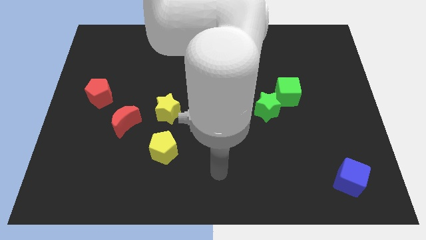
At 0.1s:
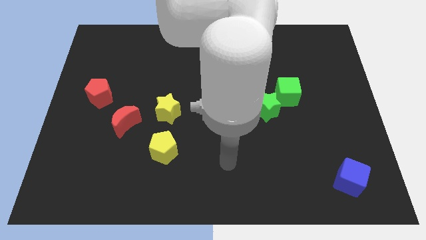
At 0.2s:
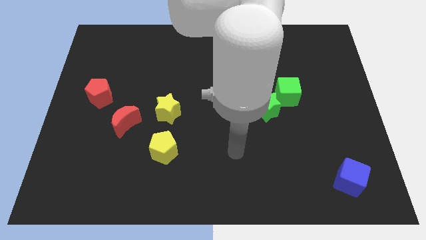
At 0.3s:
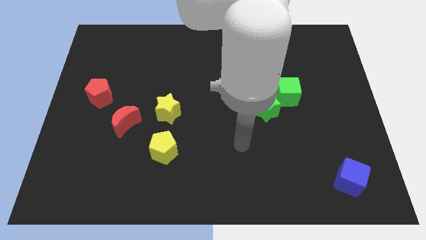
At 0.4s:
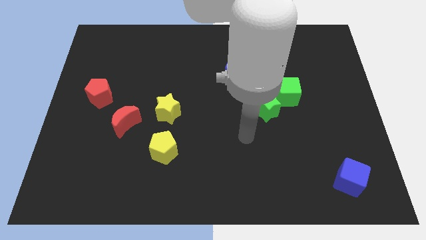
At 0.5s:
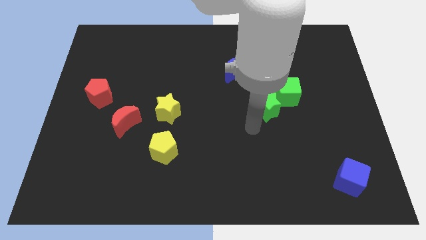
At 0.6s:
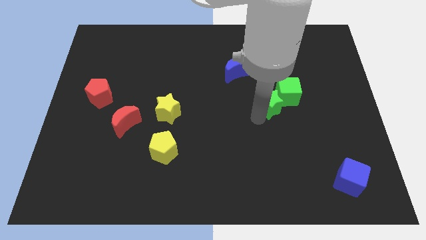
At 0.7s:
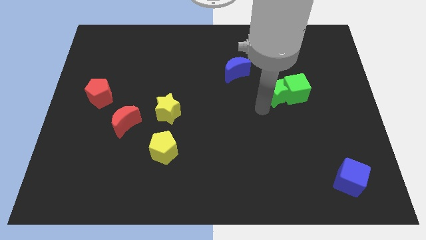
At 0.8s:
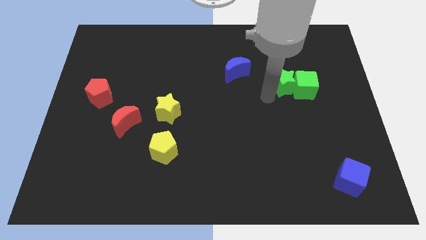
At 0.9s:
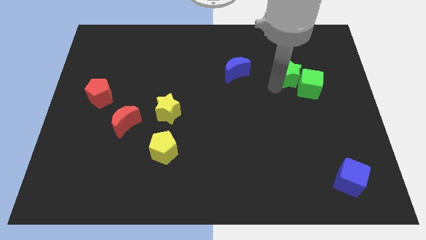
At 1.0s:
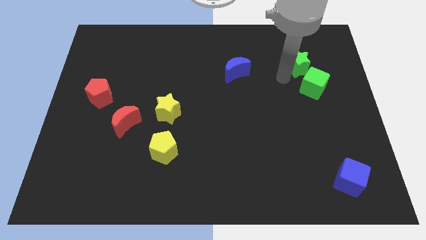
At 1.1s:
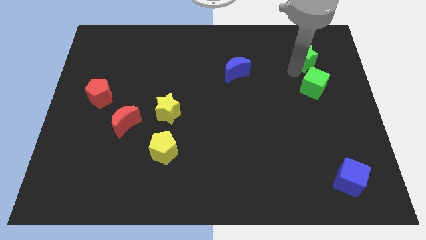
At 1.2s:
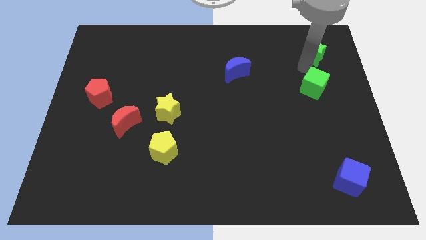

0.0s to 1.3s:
move the green cube away from the green star

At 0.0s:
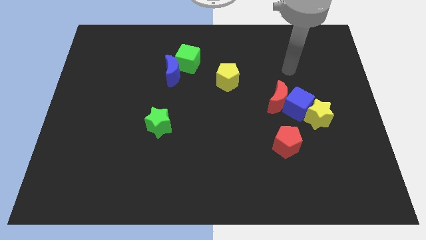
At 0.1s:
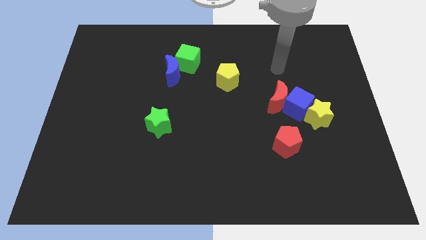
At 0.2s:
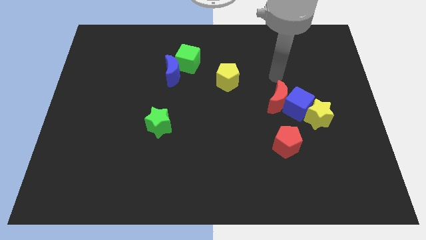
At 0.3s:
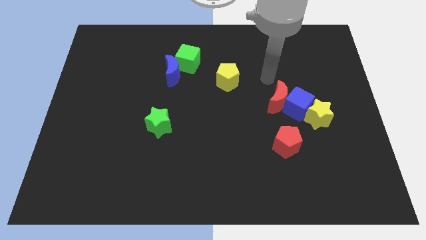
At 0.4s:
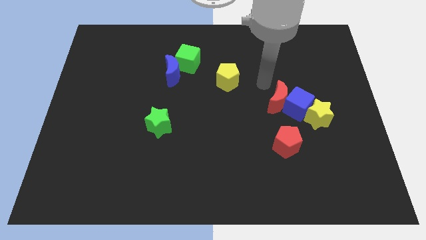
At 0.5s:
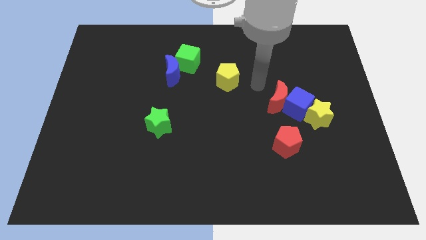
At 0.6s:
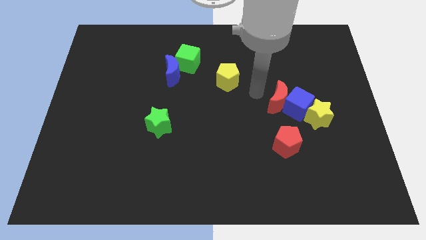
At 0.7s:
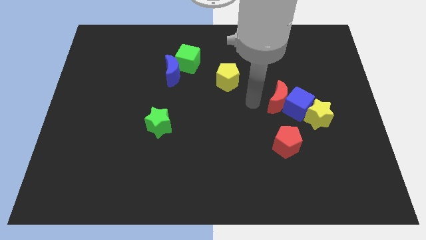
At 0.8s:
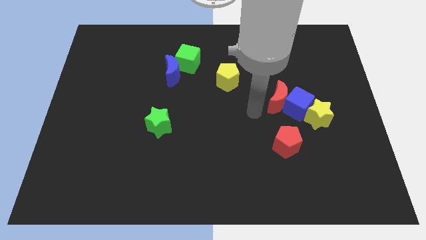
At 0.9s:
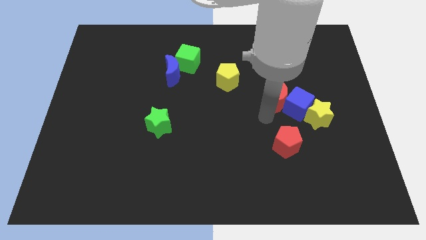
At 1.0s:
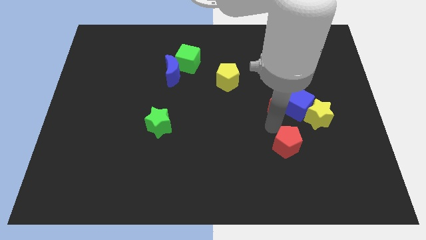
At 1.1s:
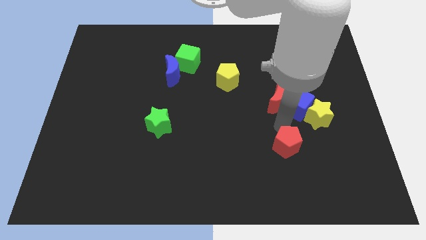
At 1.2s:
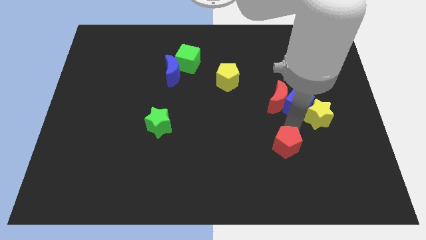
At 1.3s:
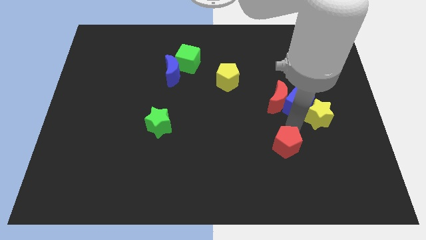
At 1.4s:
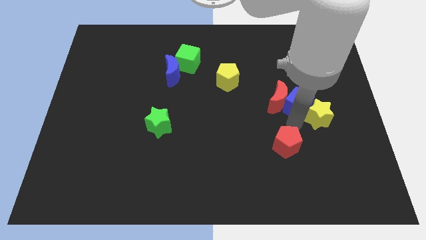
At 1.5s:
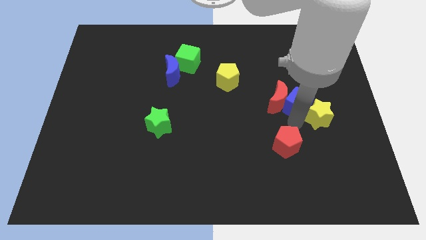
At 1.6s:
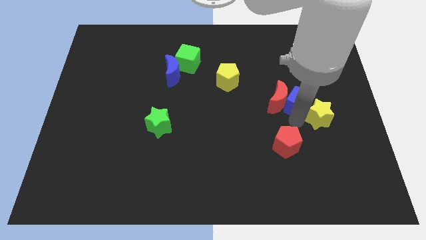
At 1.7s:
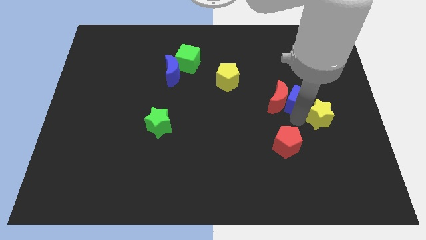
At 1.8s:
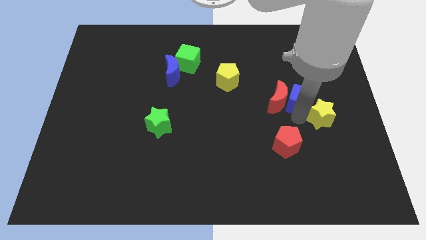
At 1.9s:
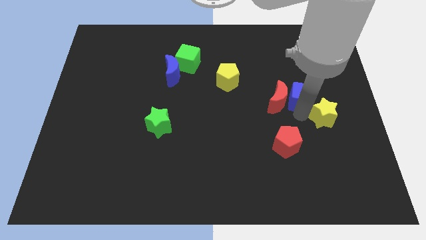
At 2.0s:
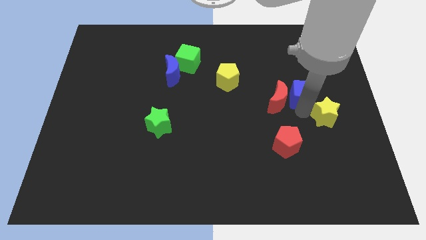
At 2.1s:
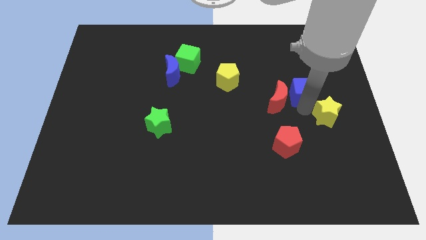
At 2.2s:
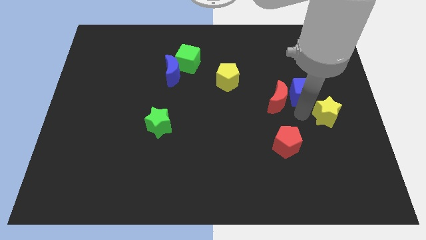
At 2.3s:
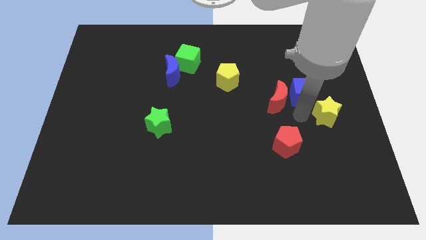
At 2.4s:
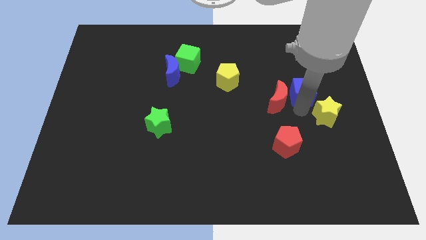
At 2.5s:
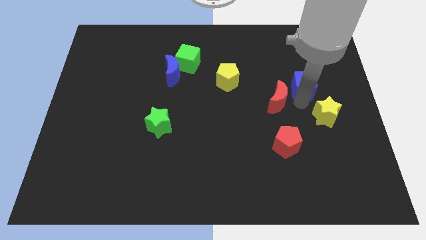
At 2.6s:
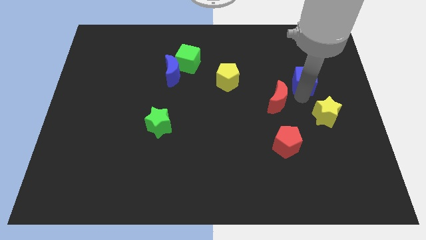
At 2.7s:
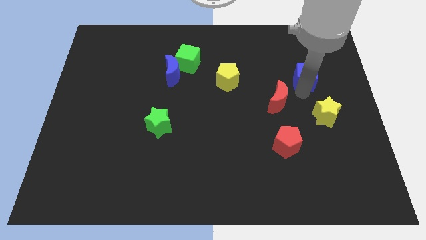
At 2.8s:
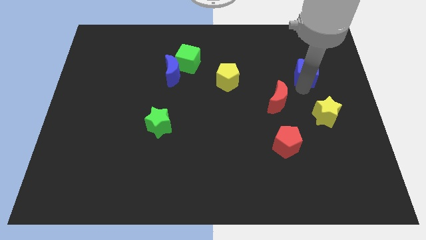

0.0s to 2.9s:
move the blue cube away from the red moon and yellow star

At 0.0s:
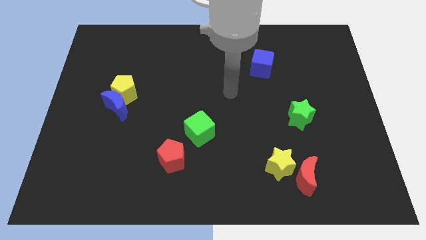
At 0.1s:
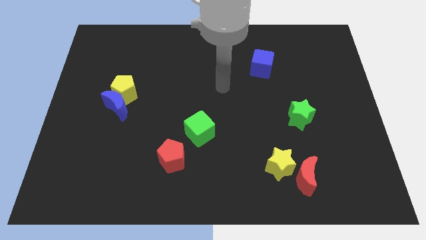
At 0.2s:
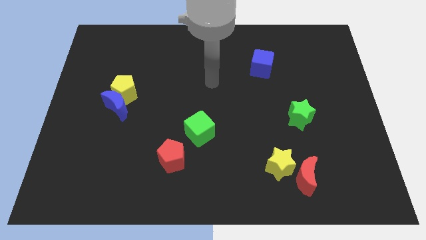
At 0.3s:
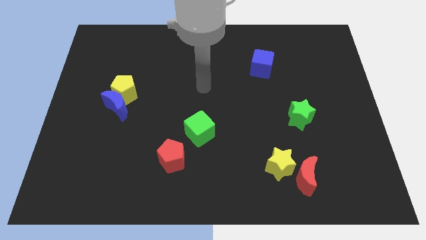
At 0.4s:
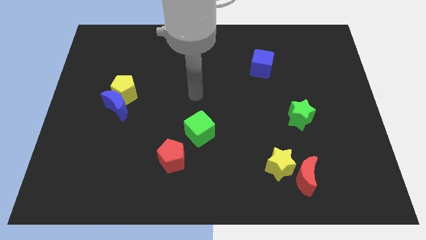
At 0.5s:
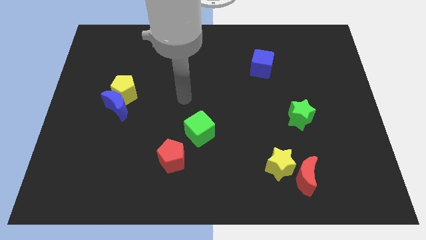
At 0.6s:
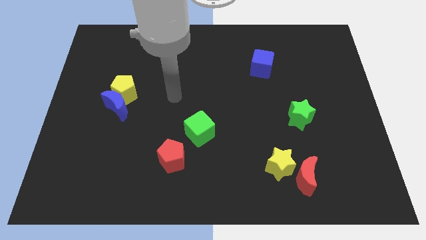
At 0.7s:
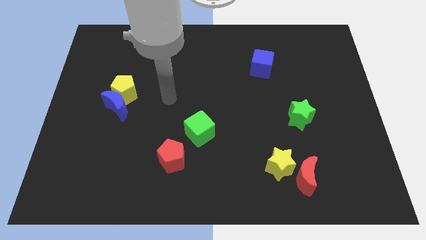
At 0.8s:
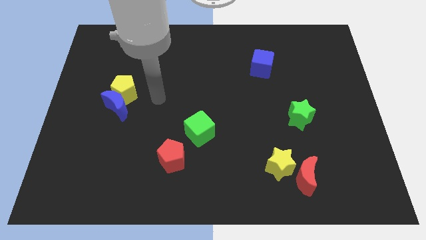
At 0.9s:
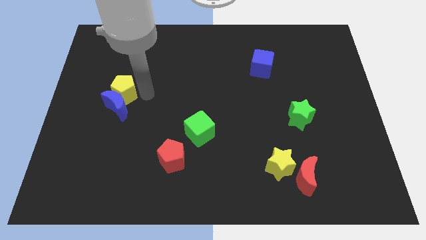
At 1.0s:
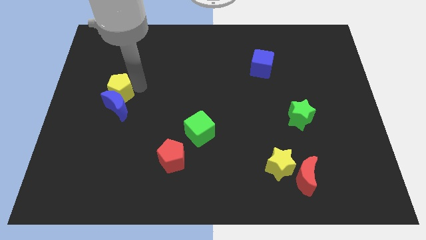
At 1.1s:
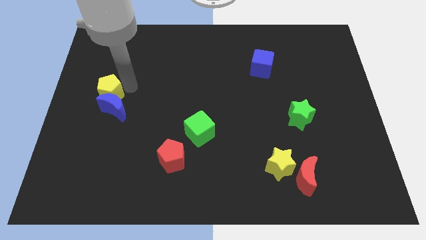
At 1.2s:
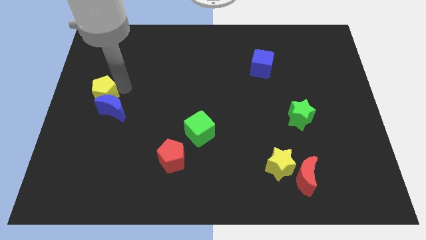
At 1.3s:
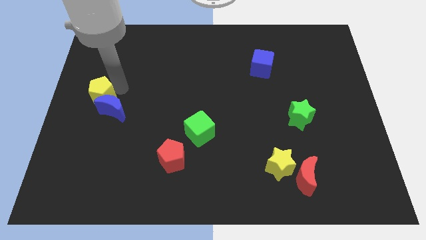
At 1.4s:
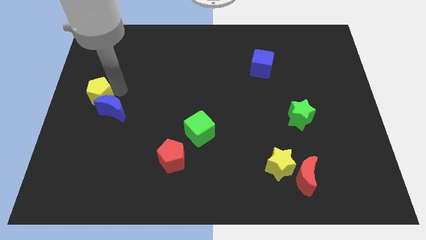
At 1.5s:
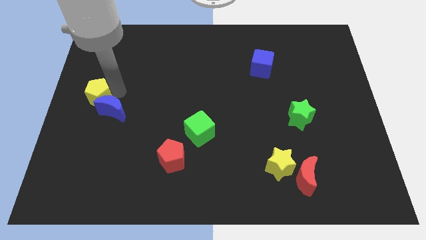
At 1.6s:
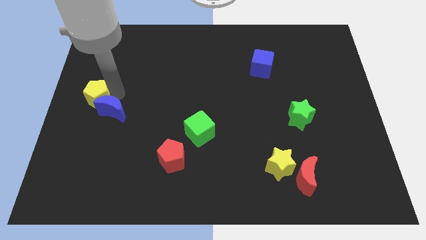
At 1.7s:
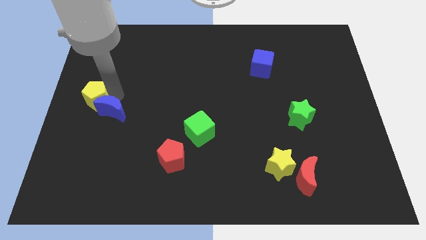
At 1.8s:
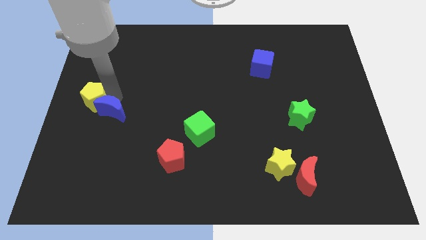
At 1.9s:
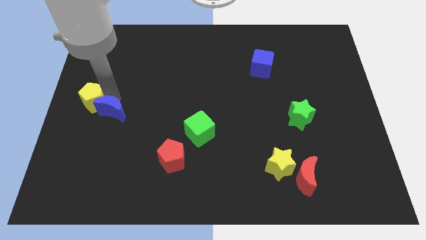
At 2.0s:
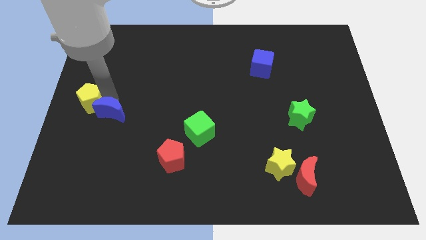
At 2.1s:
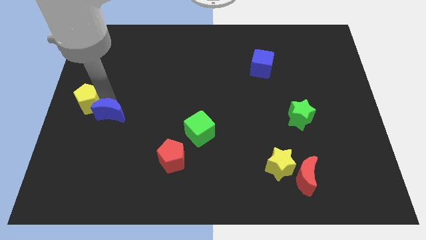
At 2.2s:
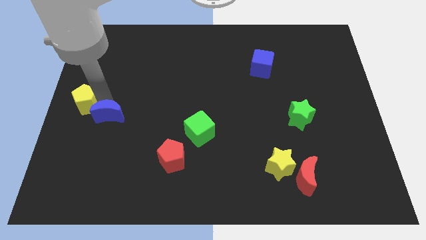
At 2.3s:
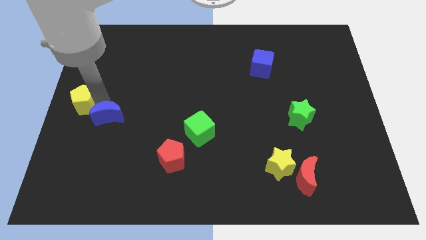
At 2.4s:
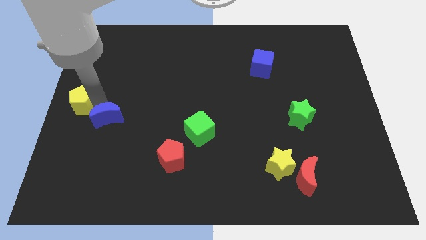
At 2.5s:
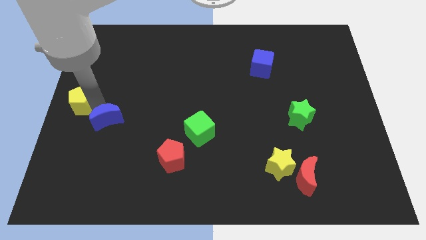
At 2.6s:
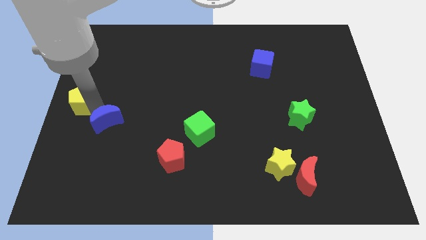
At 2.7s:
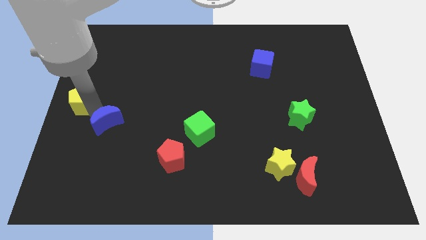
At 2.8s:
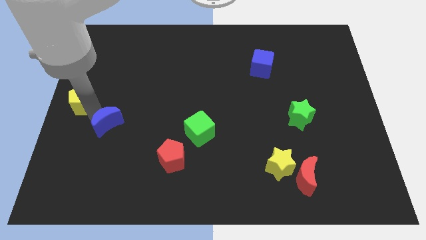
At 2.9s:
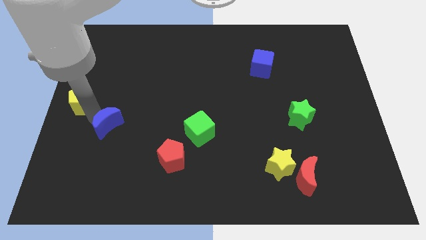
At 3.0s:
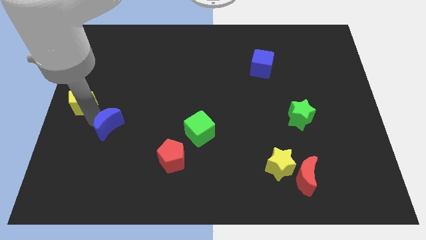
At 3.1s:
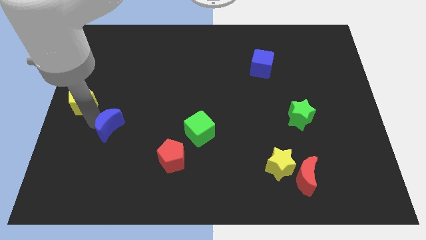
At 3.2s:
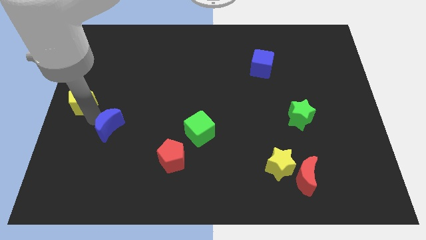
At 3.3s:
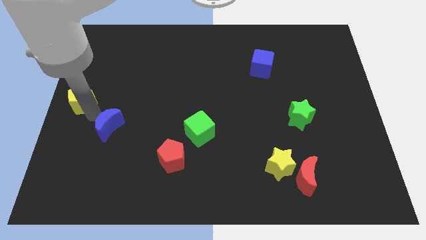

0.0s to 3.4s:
move the blue moon away from the yellow pentagon

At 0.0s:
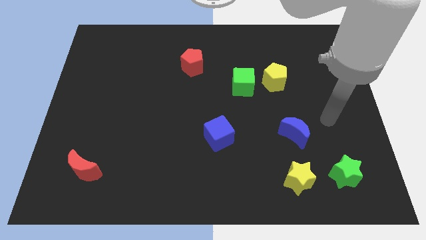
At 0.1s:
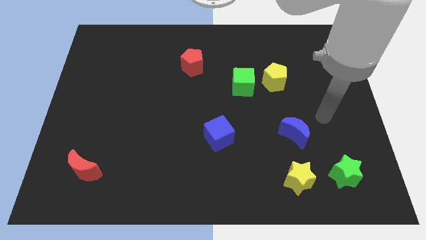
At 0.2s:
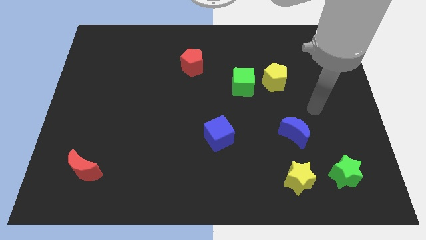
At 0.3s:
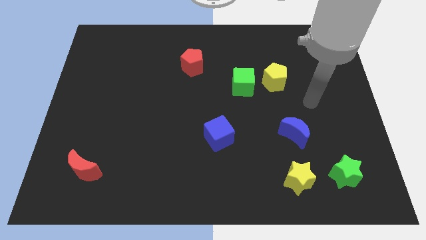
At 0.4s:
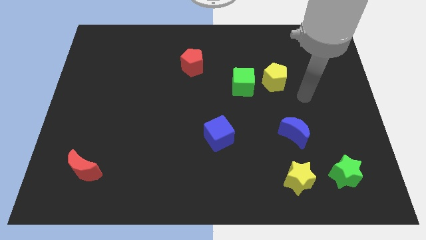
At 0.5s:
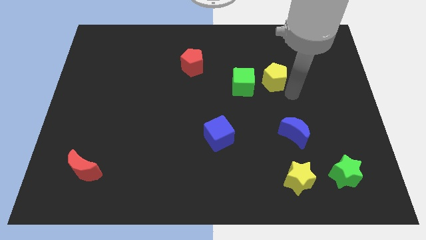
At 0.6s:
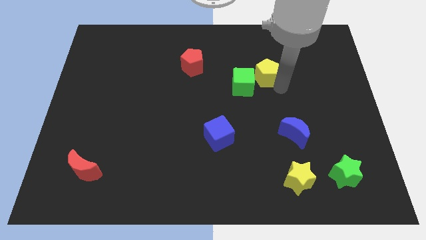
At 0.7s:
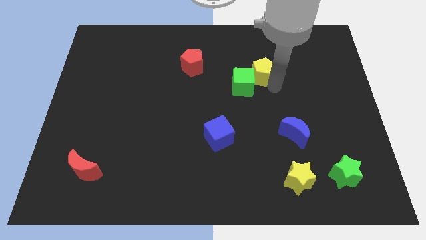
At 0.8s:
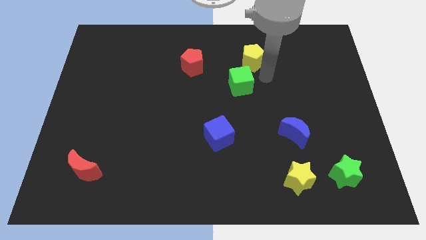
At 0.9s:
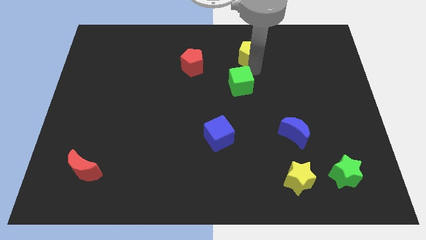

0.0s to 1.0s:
separate the green cube from the yellow pentagon

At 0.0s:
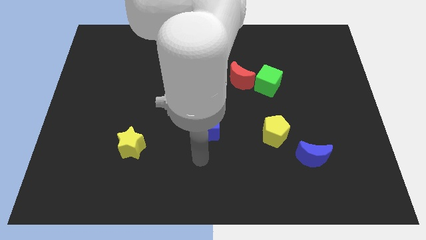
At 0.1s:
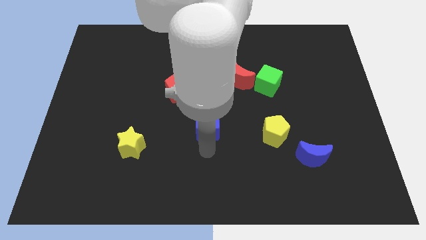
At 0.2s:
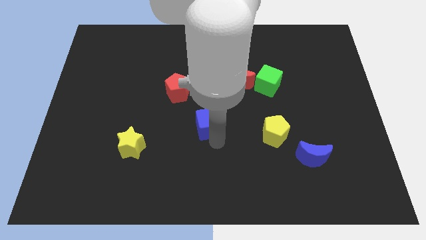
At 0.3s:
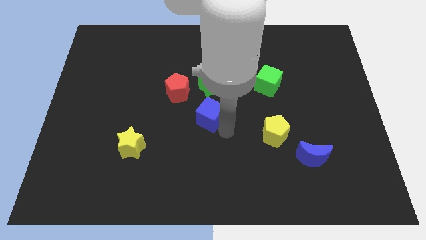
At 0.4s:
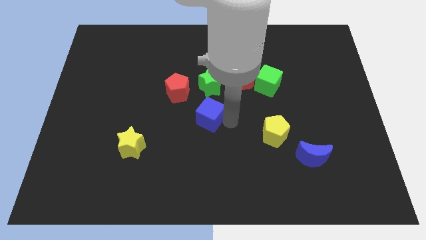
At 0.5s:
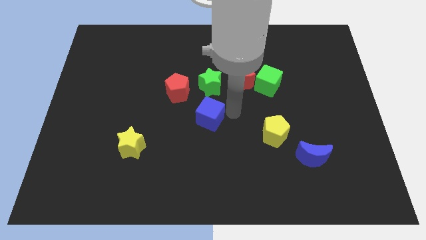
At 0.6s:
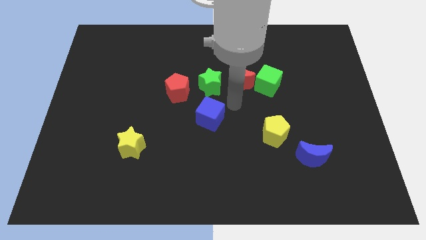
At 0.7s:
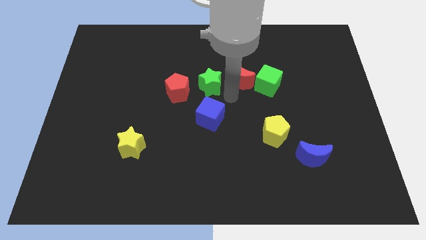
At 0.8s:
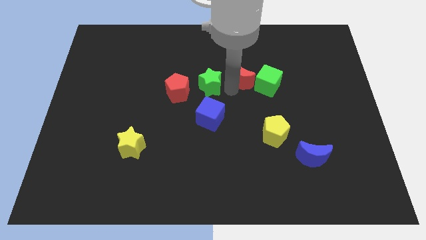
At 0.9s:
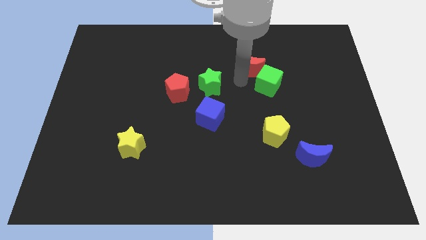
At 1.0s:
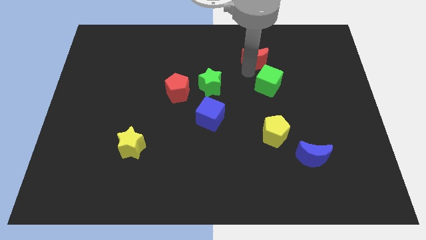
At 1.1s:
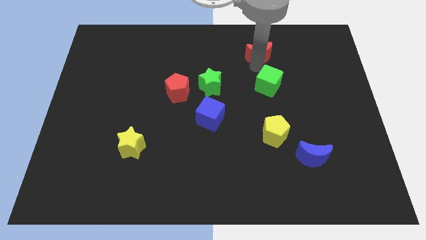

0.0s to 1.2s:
pull the green cube apart from the red moon
